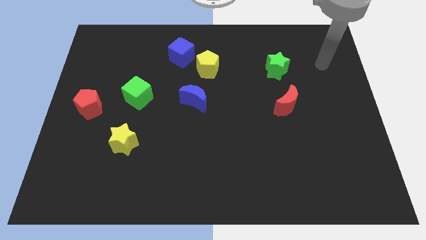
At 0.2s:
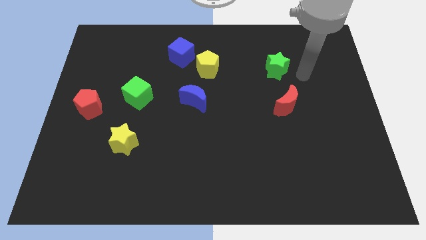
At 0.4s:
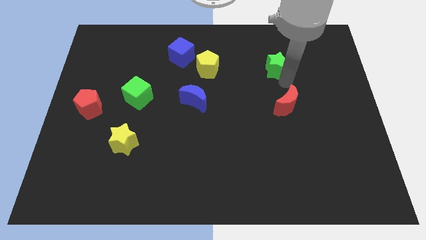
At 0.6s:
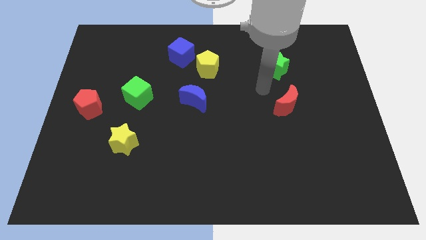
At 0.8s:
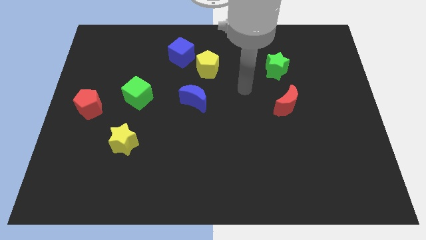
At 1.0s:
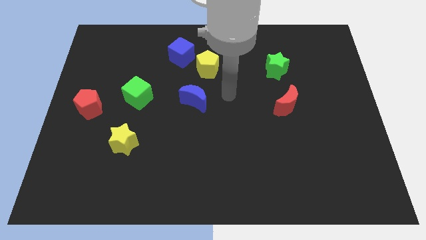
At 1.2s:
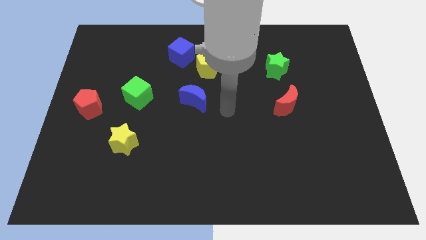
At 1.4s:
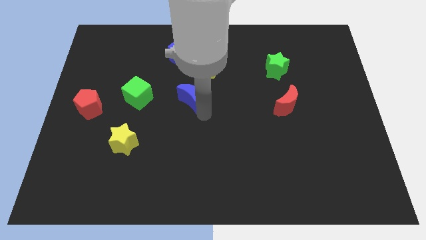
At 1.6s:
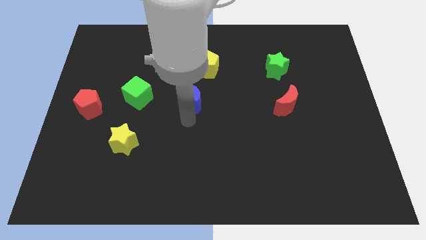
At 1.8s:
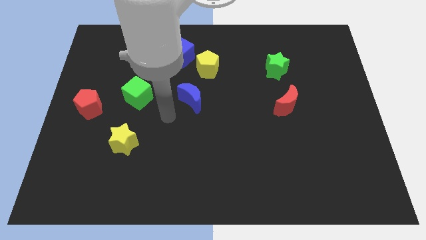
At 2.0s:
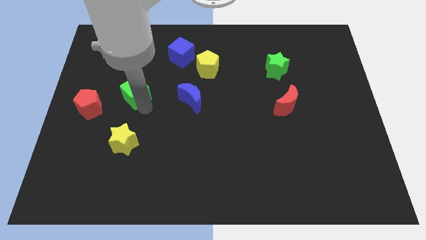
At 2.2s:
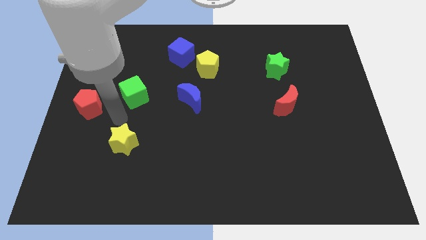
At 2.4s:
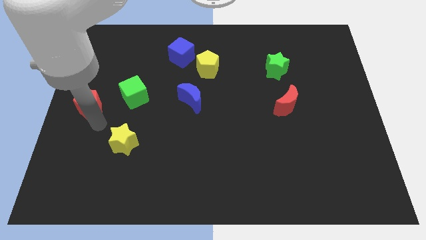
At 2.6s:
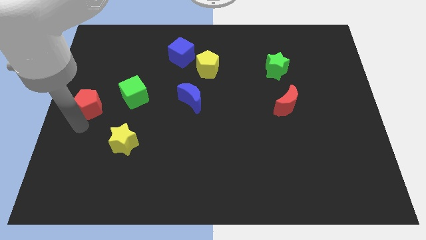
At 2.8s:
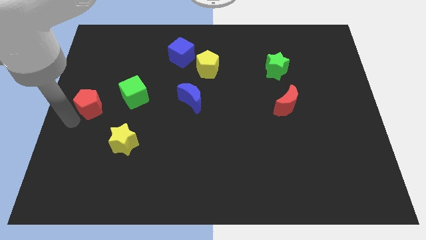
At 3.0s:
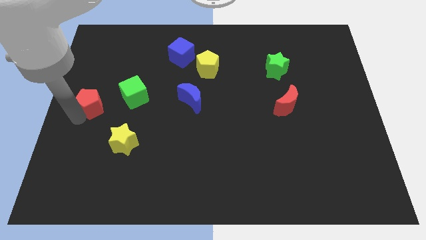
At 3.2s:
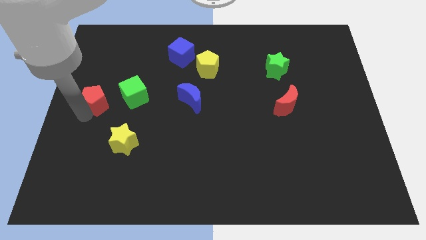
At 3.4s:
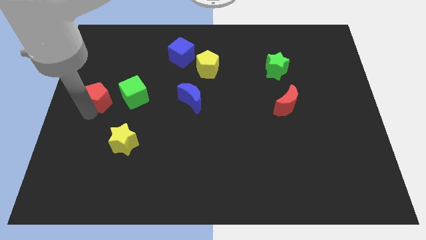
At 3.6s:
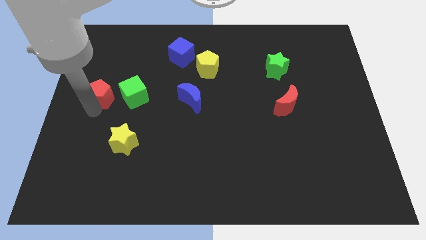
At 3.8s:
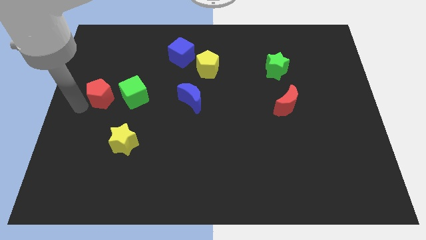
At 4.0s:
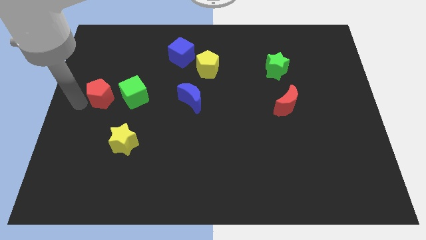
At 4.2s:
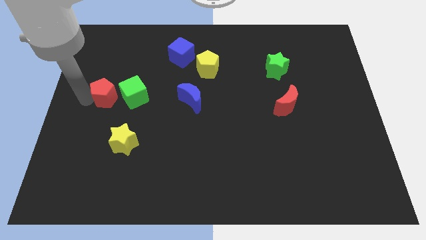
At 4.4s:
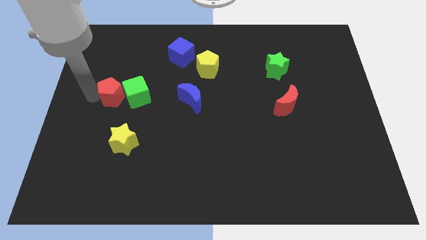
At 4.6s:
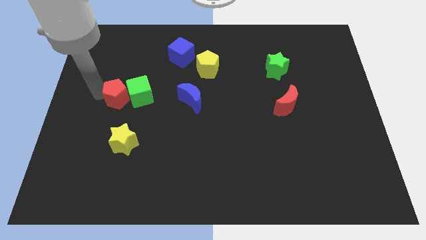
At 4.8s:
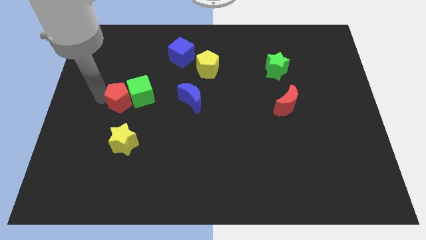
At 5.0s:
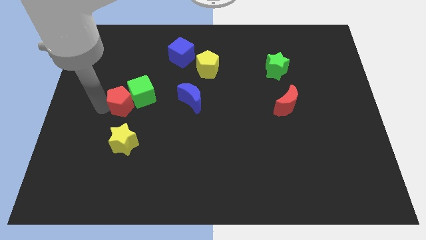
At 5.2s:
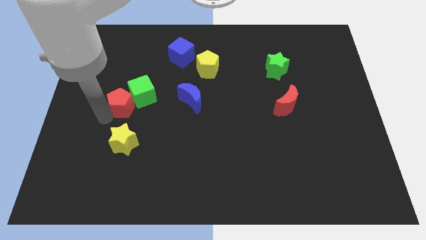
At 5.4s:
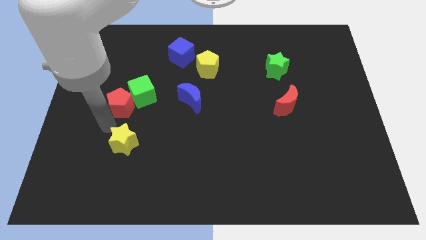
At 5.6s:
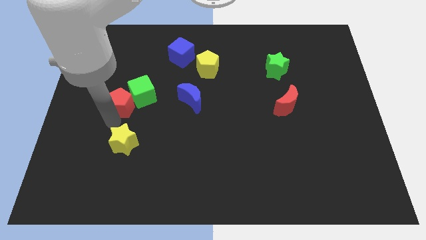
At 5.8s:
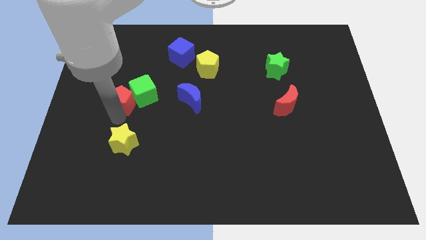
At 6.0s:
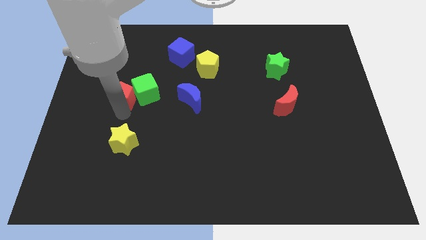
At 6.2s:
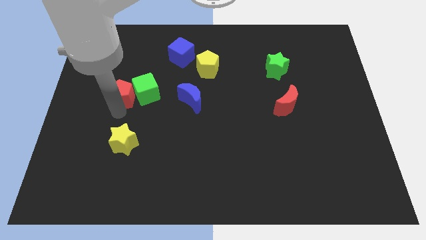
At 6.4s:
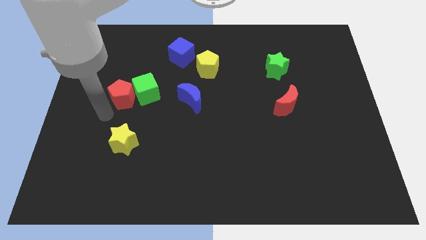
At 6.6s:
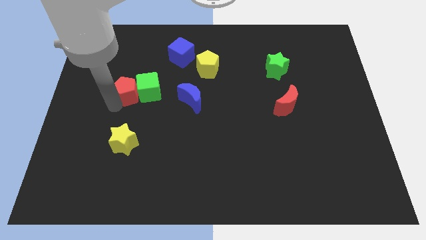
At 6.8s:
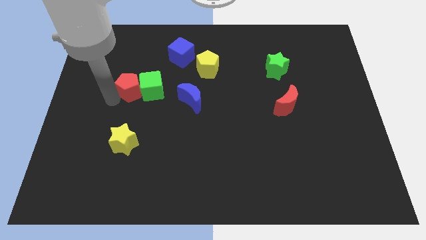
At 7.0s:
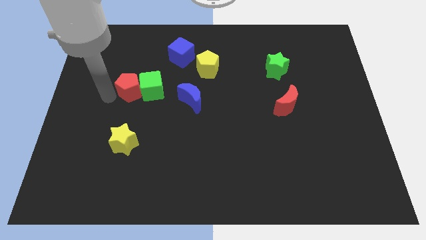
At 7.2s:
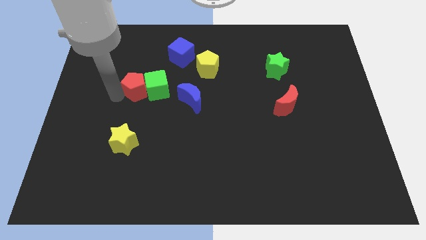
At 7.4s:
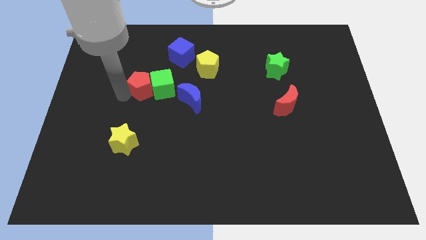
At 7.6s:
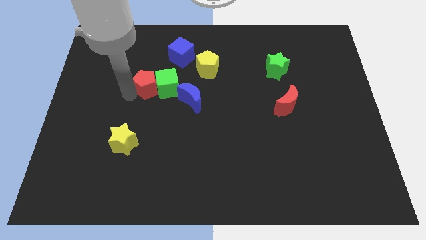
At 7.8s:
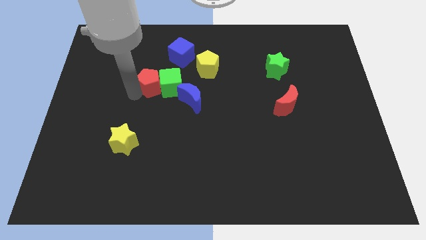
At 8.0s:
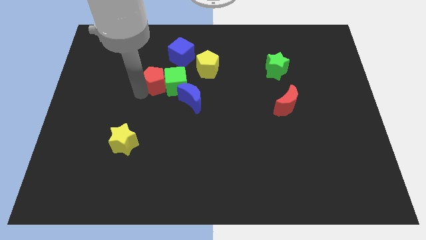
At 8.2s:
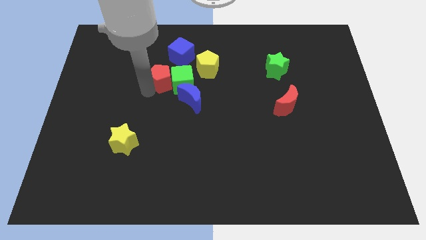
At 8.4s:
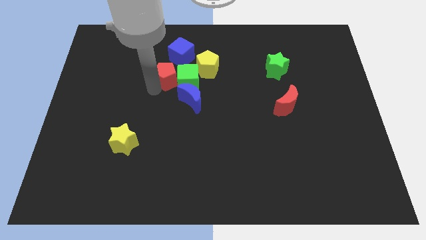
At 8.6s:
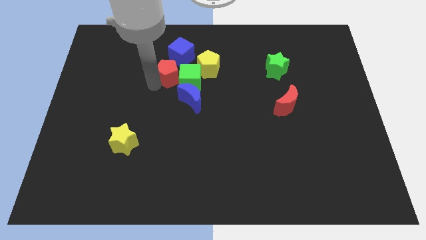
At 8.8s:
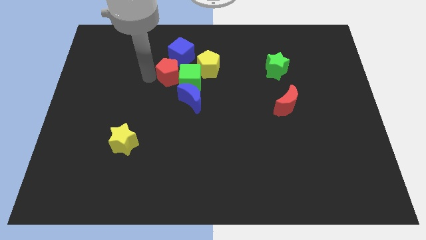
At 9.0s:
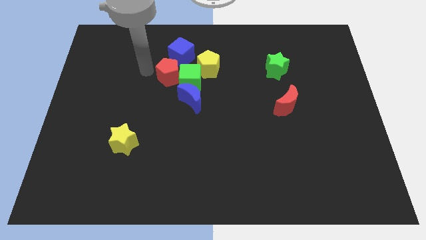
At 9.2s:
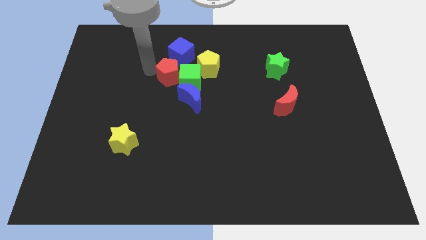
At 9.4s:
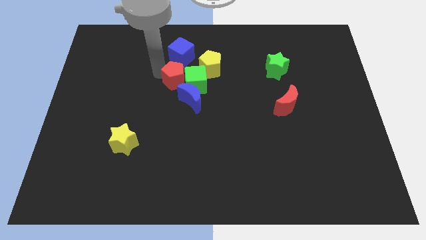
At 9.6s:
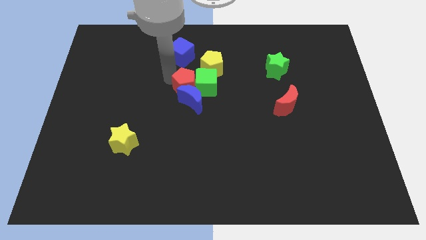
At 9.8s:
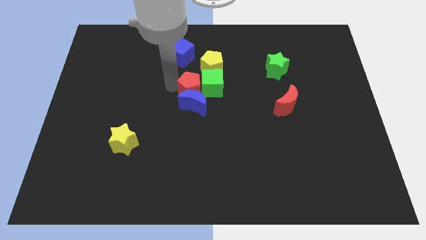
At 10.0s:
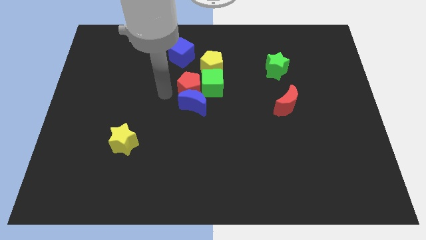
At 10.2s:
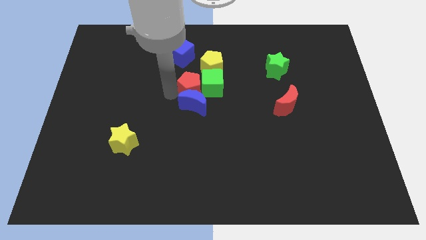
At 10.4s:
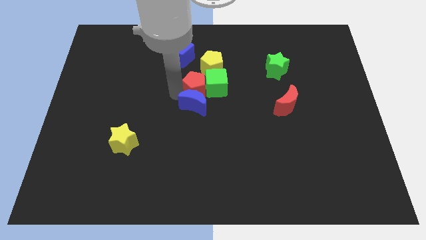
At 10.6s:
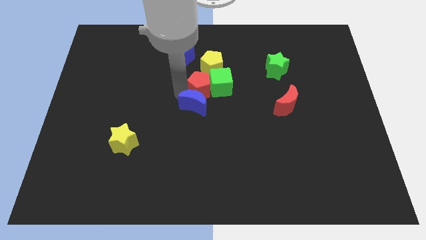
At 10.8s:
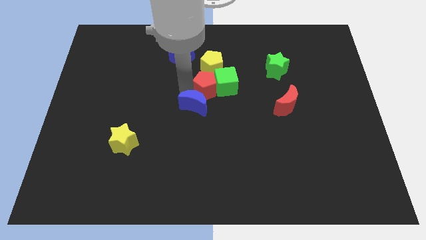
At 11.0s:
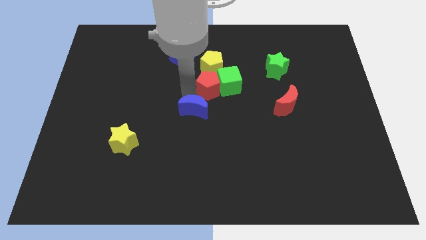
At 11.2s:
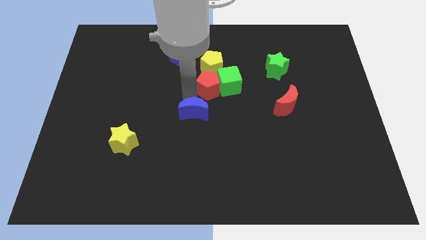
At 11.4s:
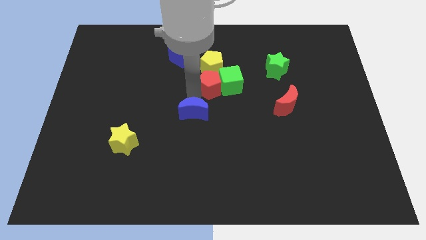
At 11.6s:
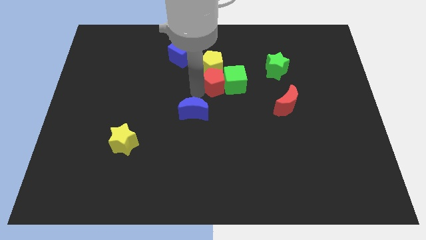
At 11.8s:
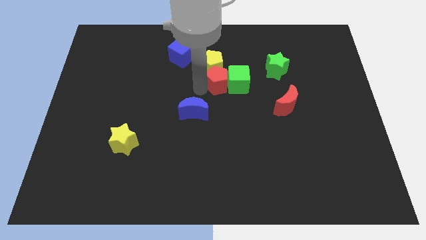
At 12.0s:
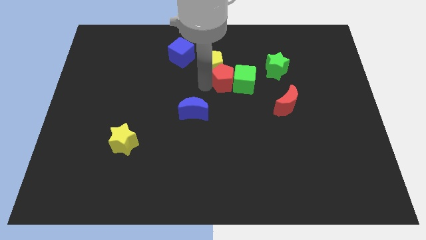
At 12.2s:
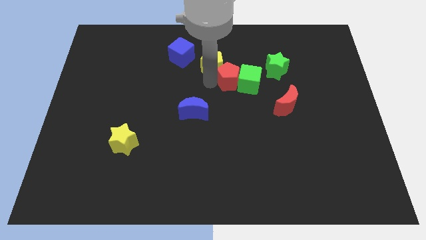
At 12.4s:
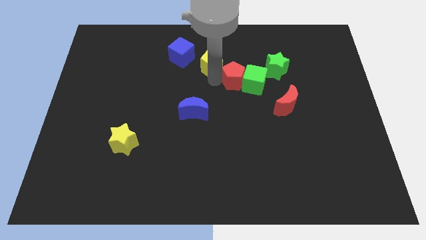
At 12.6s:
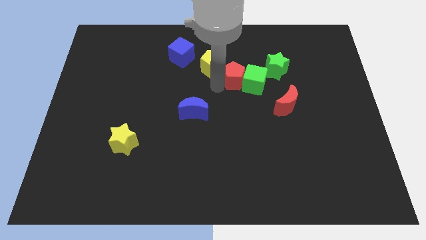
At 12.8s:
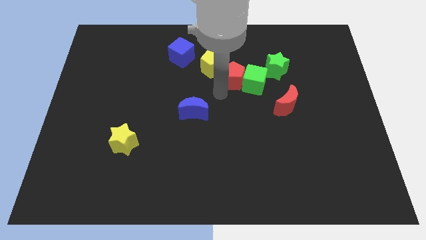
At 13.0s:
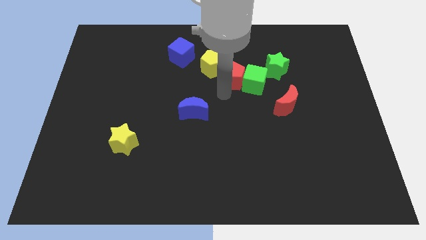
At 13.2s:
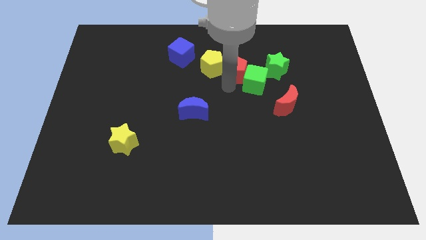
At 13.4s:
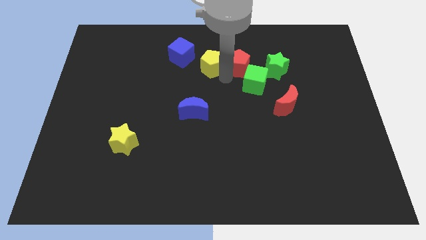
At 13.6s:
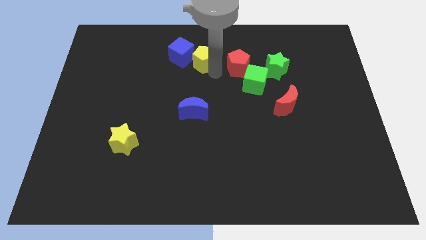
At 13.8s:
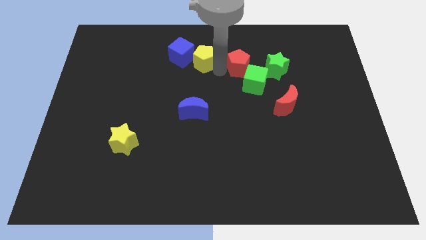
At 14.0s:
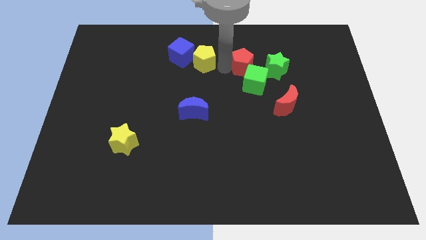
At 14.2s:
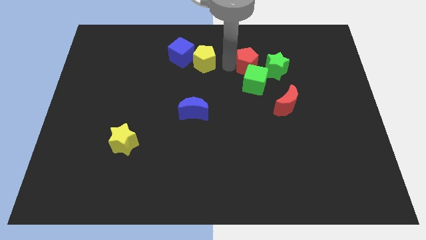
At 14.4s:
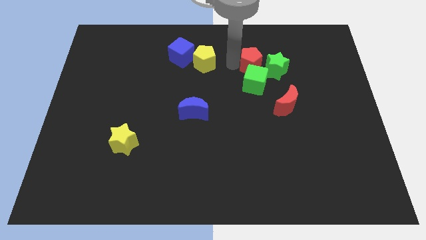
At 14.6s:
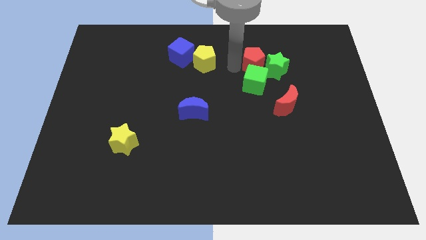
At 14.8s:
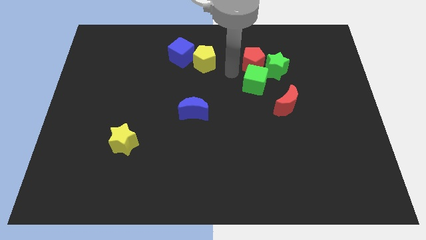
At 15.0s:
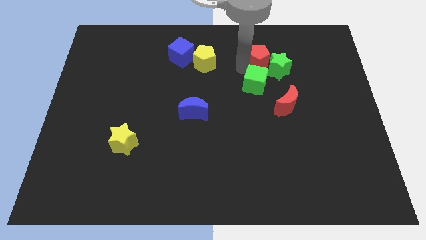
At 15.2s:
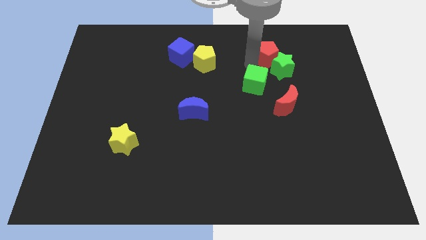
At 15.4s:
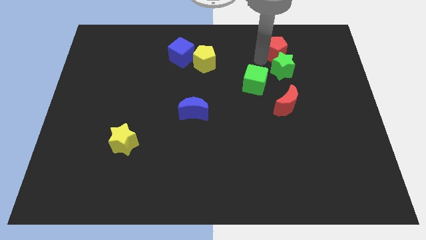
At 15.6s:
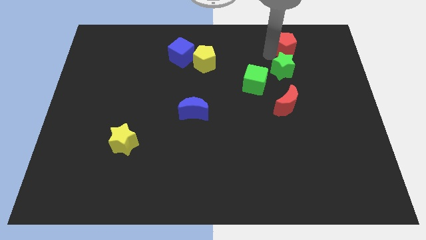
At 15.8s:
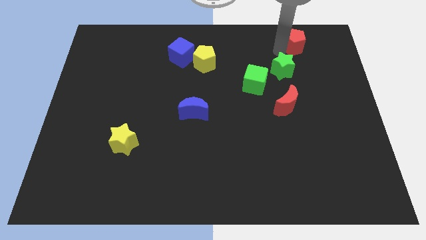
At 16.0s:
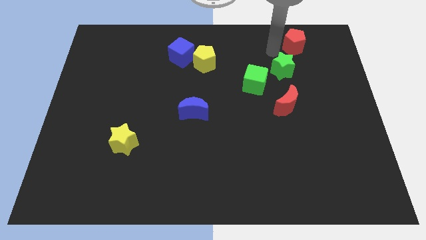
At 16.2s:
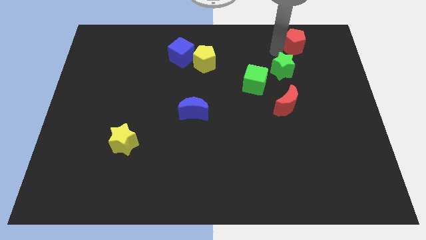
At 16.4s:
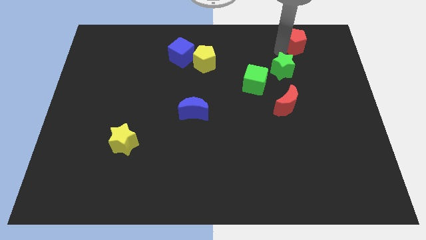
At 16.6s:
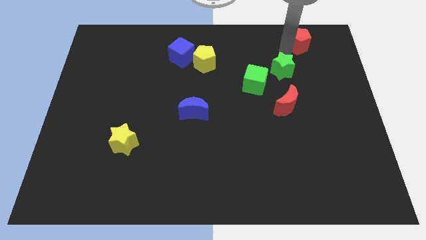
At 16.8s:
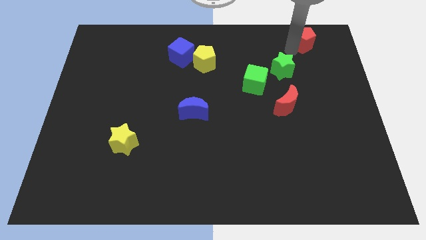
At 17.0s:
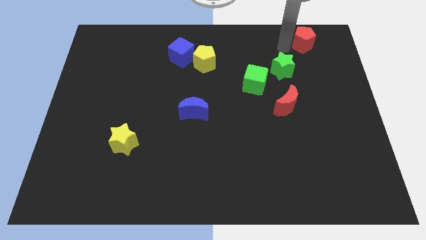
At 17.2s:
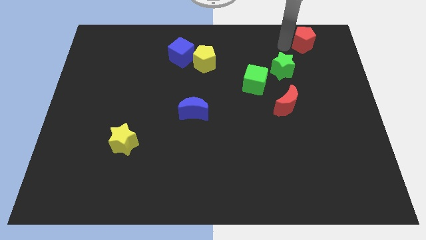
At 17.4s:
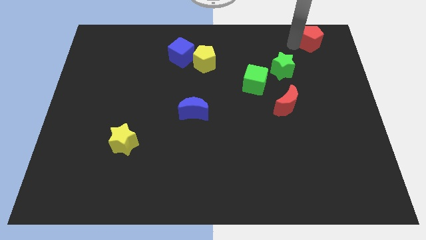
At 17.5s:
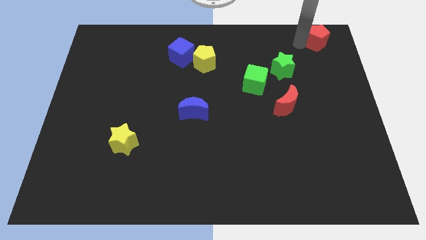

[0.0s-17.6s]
put the red pentagon to the top right corner
